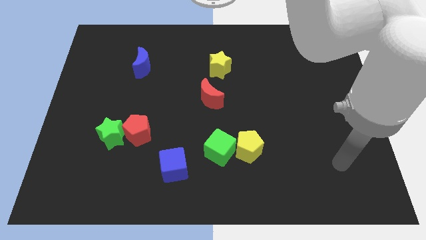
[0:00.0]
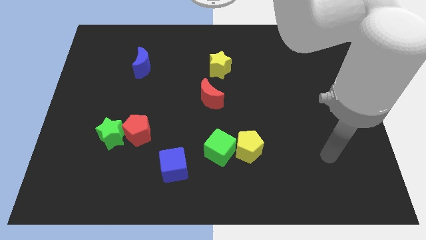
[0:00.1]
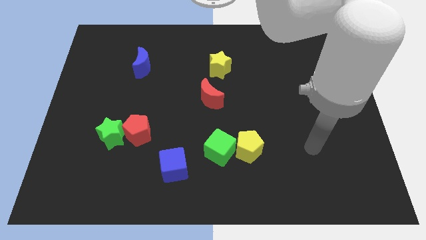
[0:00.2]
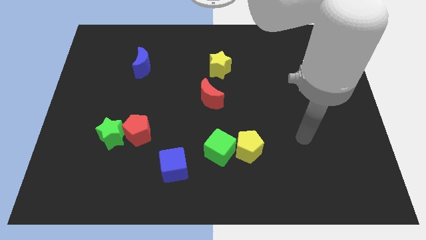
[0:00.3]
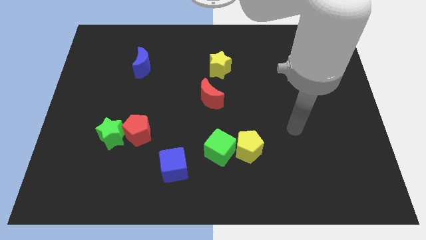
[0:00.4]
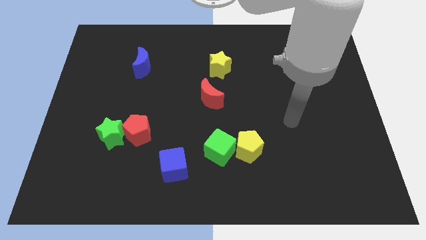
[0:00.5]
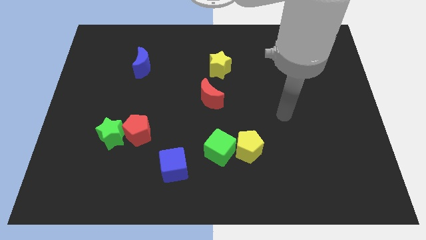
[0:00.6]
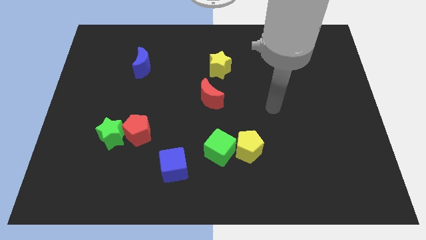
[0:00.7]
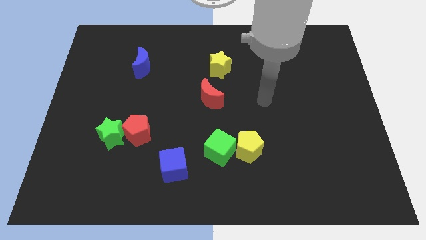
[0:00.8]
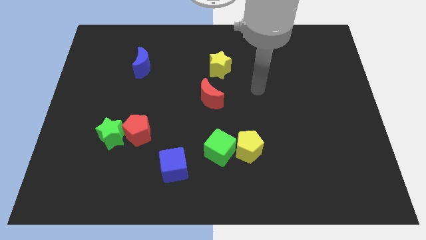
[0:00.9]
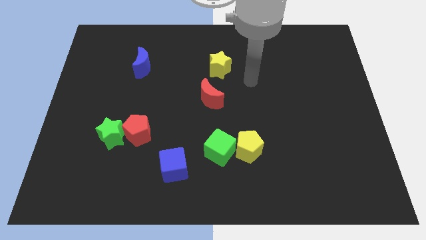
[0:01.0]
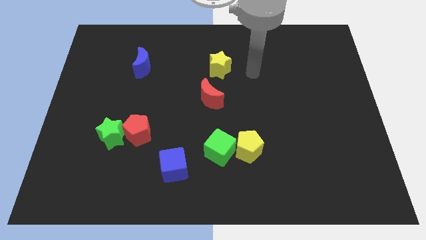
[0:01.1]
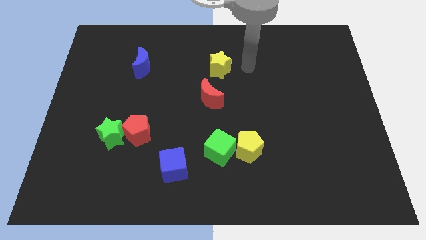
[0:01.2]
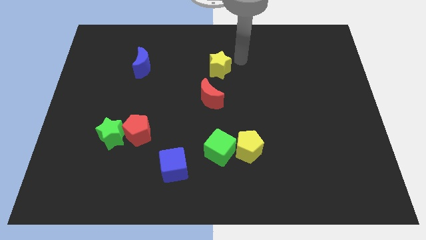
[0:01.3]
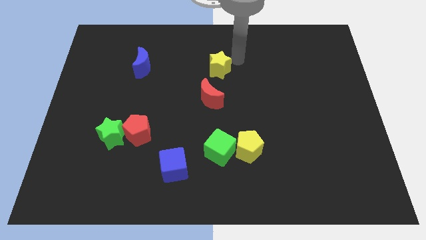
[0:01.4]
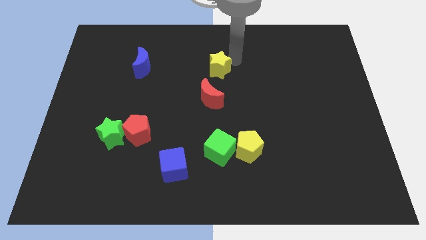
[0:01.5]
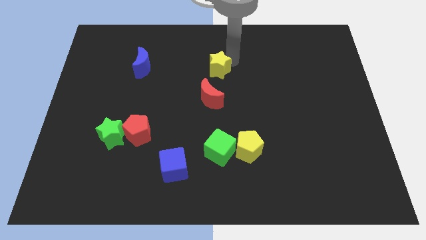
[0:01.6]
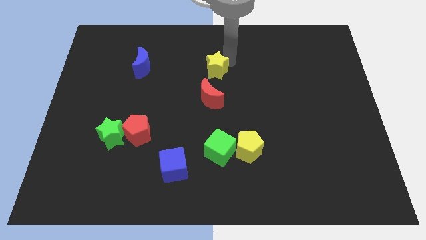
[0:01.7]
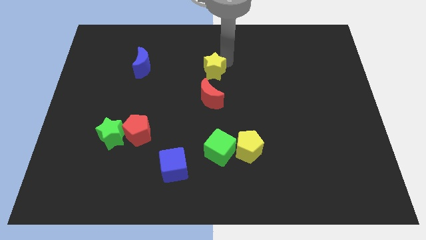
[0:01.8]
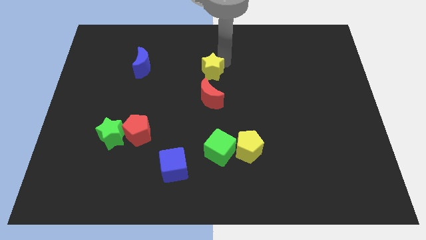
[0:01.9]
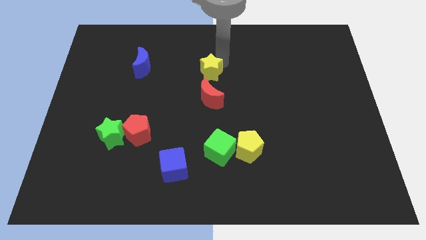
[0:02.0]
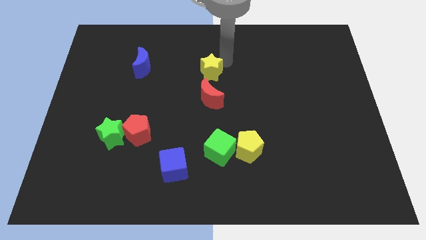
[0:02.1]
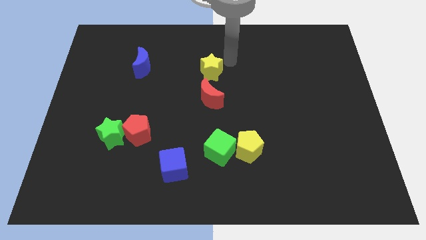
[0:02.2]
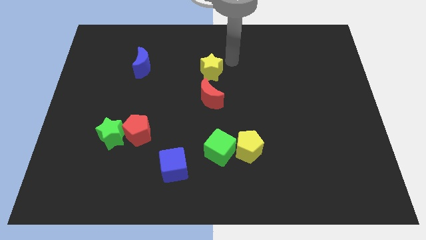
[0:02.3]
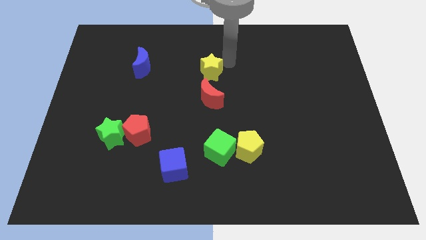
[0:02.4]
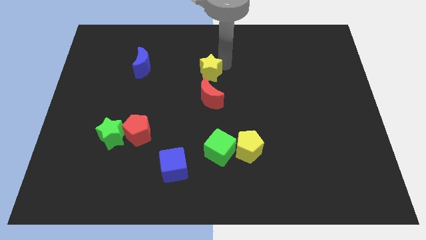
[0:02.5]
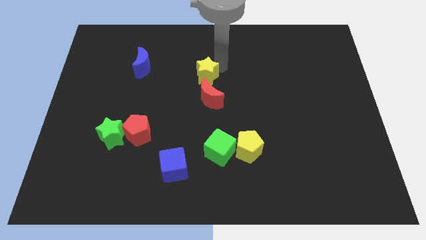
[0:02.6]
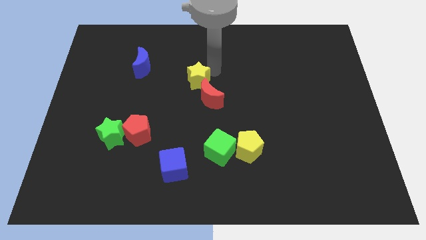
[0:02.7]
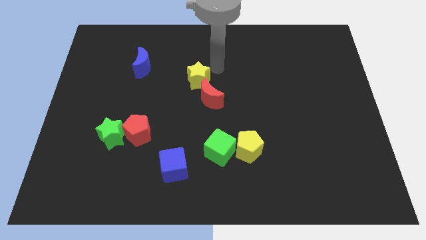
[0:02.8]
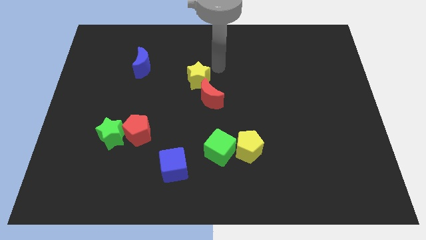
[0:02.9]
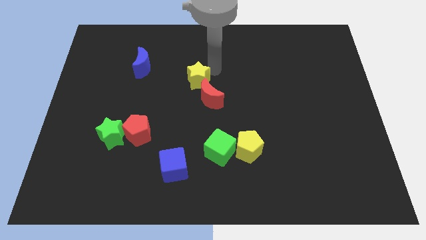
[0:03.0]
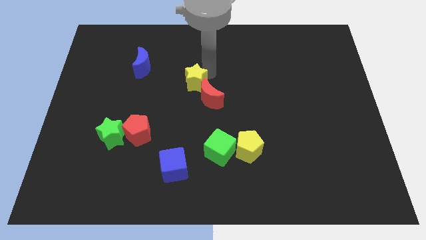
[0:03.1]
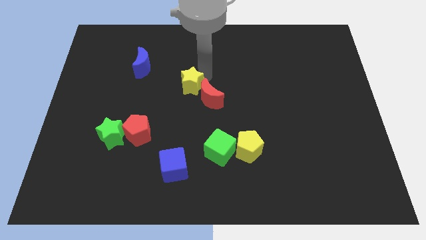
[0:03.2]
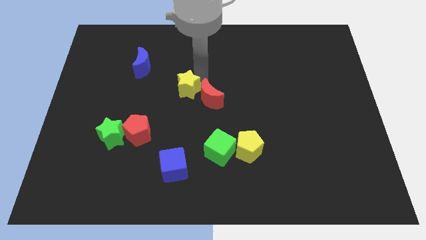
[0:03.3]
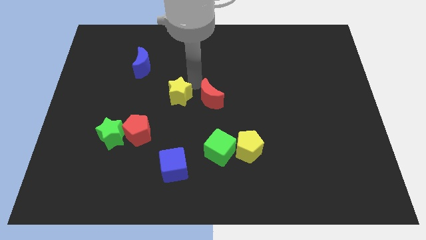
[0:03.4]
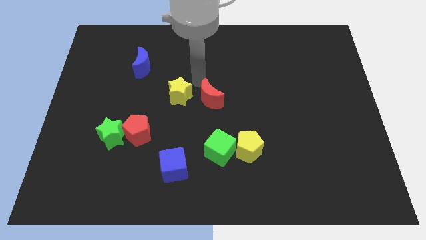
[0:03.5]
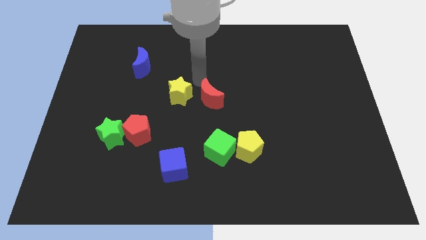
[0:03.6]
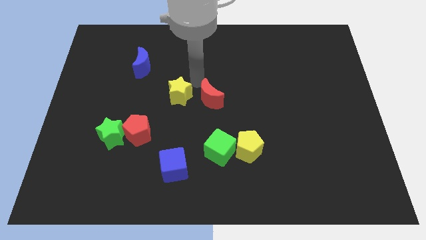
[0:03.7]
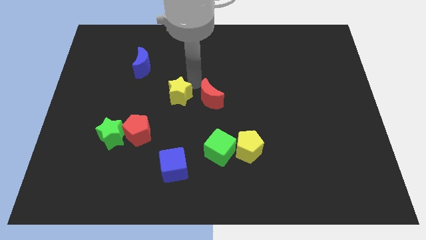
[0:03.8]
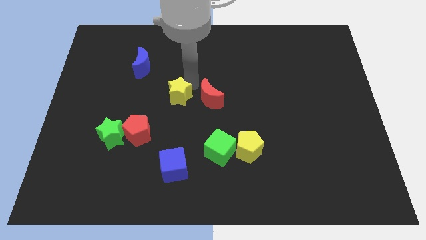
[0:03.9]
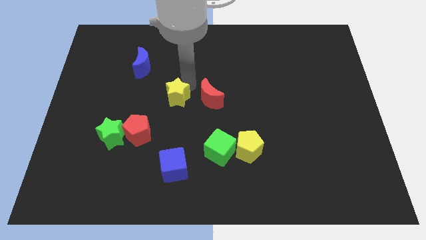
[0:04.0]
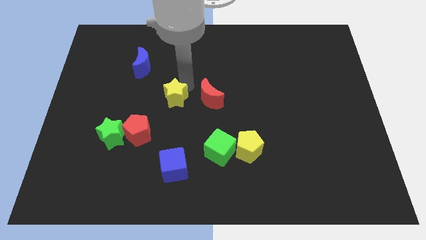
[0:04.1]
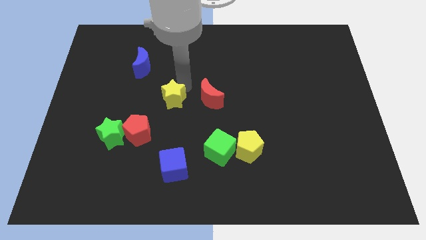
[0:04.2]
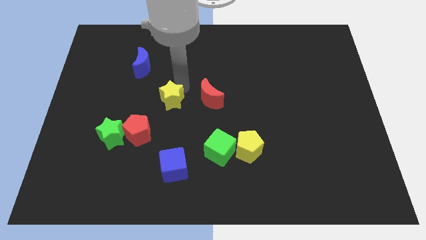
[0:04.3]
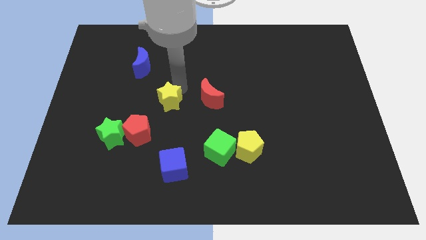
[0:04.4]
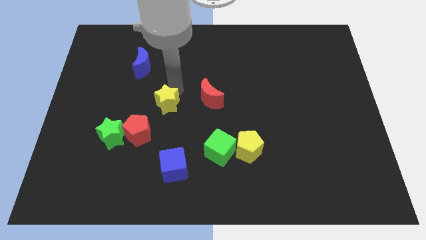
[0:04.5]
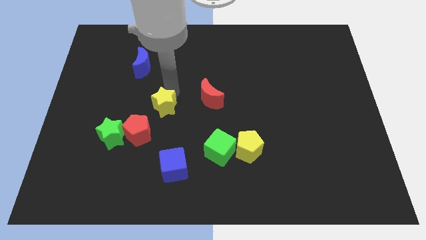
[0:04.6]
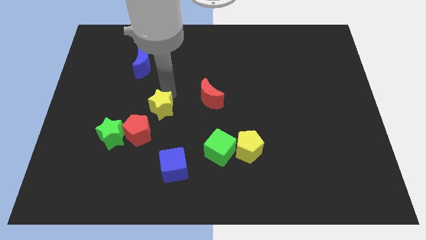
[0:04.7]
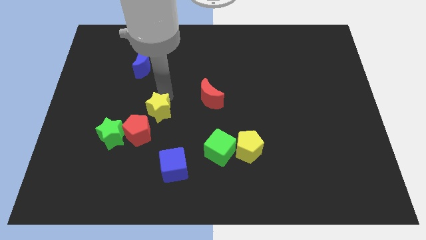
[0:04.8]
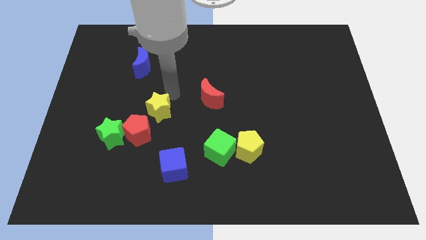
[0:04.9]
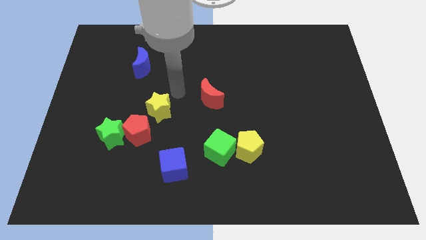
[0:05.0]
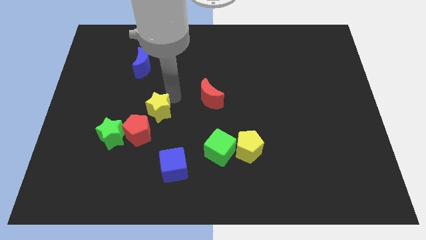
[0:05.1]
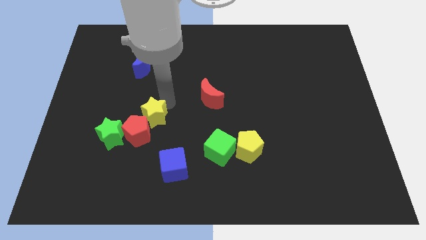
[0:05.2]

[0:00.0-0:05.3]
slide the yellow star to the red pentagon

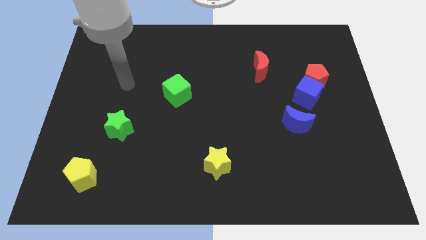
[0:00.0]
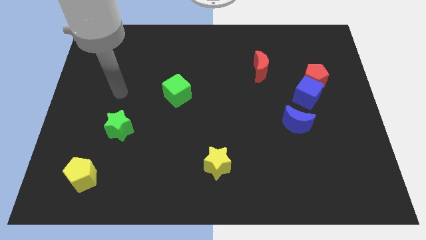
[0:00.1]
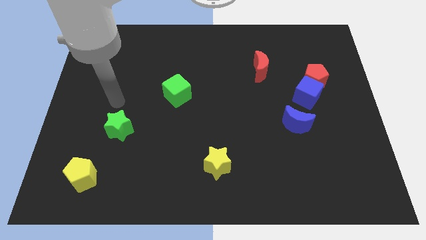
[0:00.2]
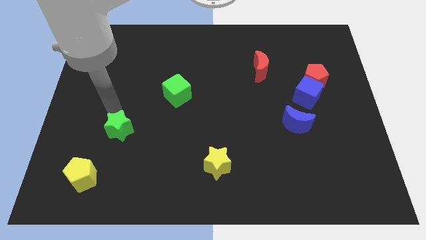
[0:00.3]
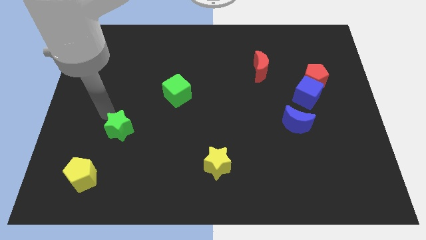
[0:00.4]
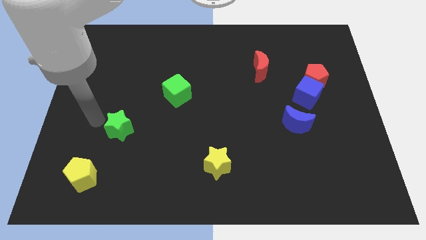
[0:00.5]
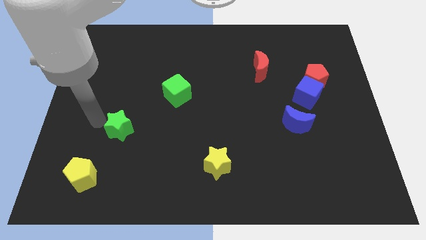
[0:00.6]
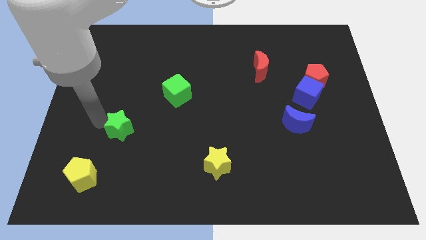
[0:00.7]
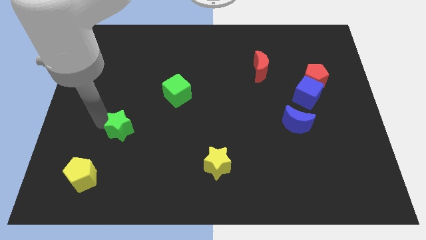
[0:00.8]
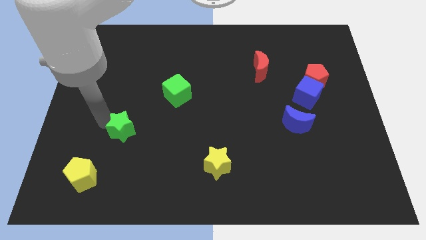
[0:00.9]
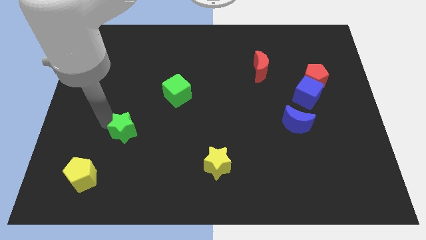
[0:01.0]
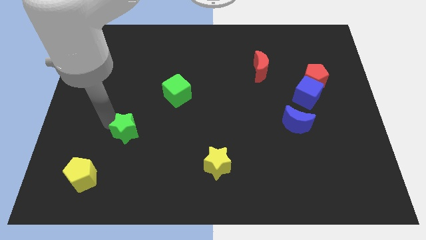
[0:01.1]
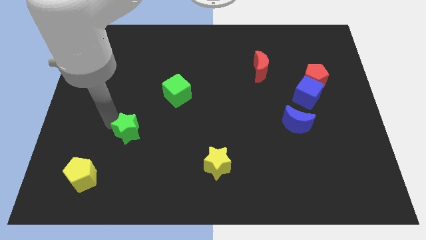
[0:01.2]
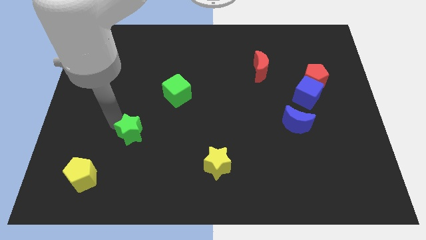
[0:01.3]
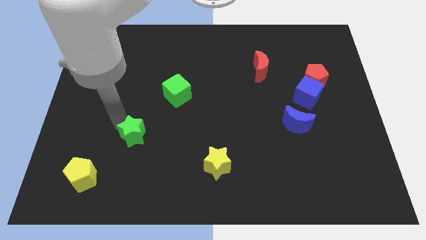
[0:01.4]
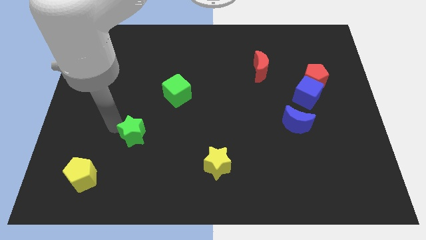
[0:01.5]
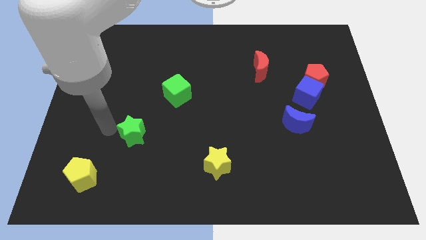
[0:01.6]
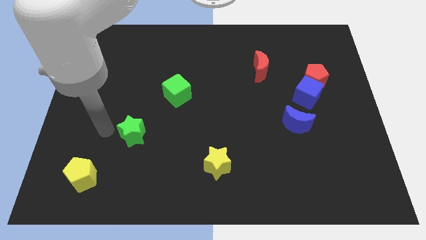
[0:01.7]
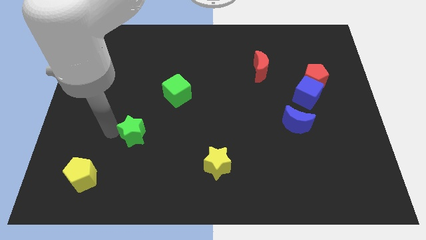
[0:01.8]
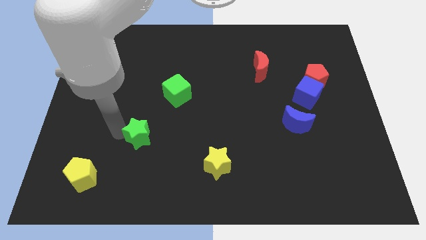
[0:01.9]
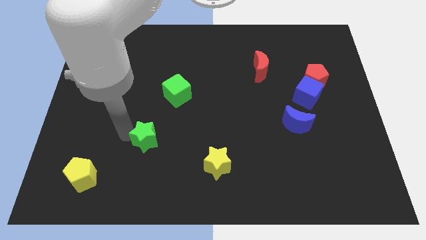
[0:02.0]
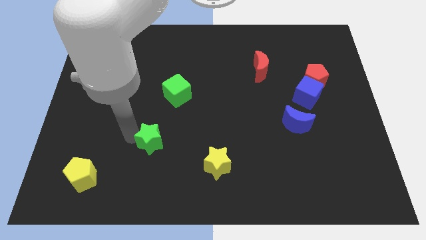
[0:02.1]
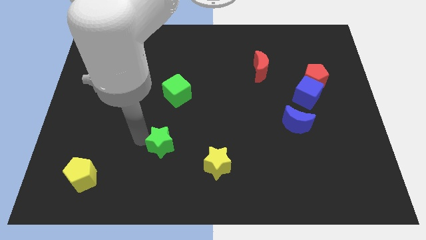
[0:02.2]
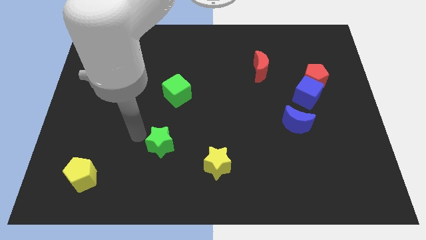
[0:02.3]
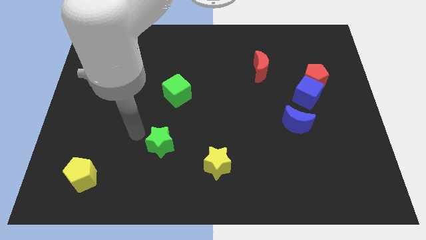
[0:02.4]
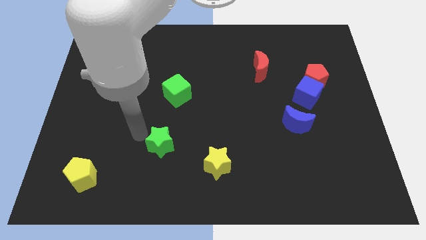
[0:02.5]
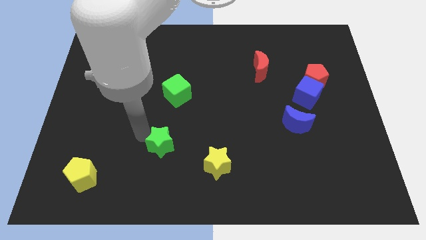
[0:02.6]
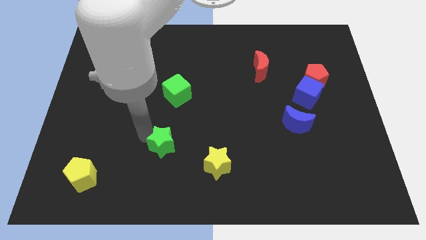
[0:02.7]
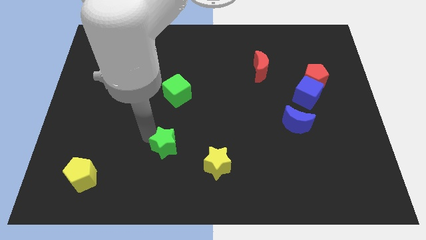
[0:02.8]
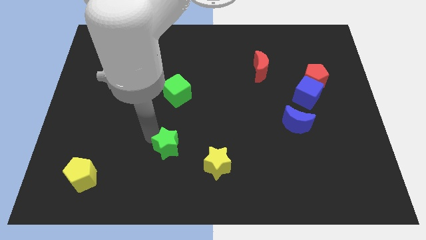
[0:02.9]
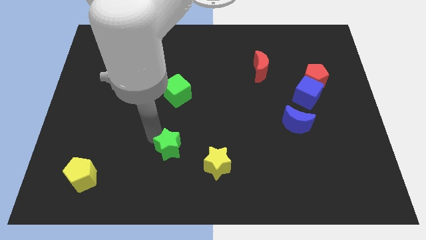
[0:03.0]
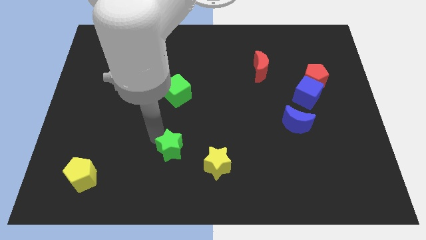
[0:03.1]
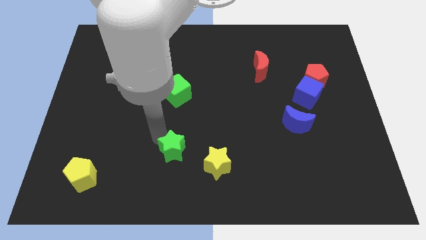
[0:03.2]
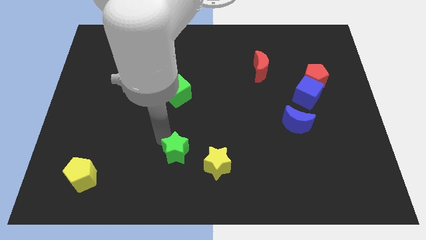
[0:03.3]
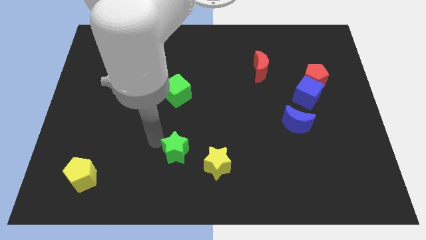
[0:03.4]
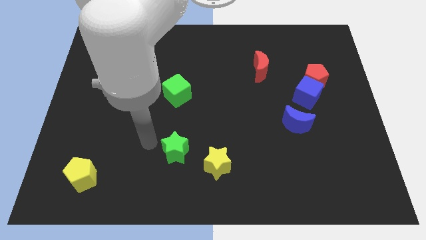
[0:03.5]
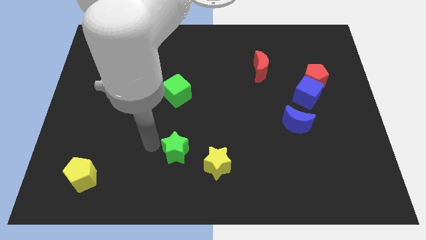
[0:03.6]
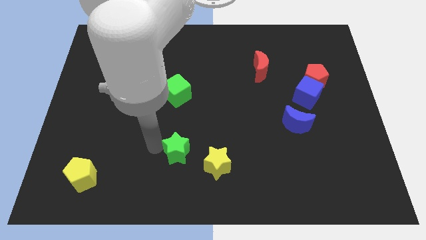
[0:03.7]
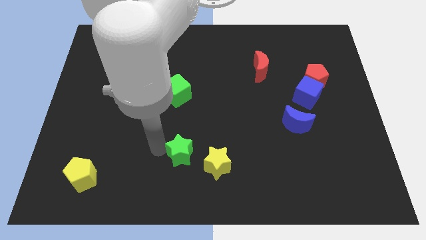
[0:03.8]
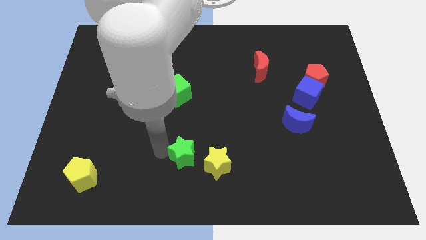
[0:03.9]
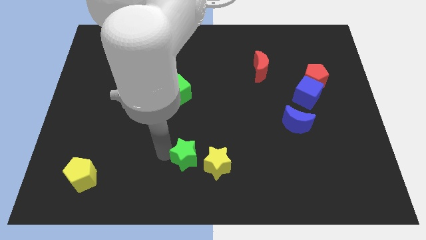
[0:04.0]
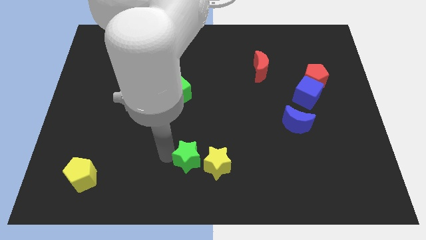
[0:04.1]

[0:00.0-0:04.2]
move the green star to the yellow star
